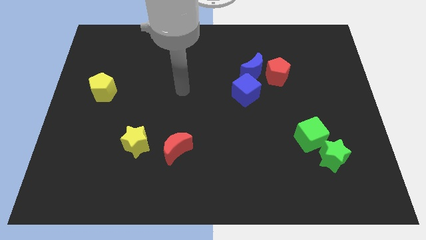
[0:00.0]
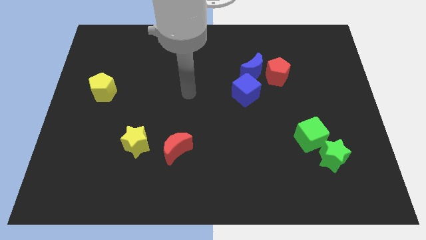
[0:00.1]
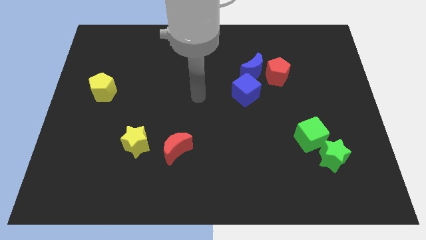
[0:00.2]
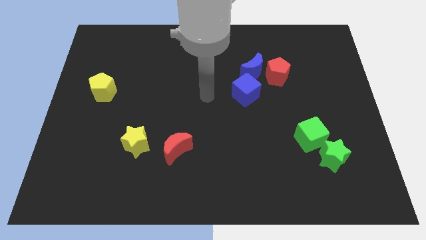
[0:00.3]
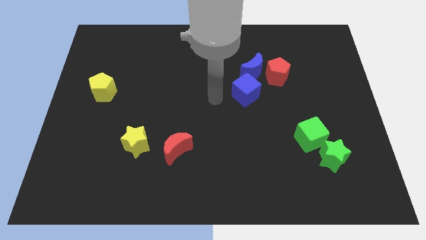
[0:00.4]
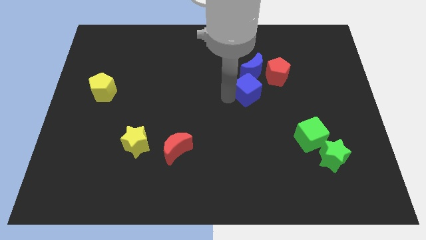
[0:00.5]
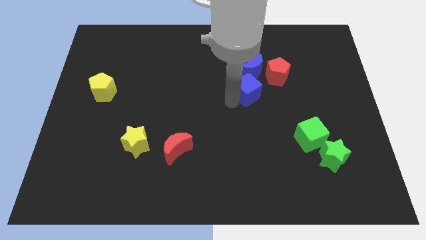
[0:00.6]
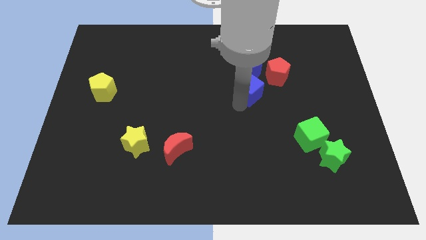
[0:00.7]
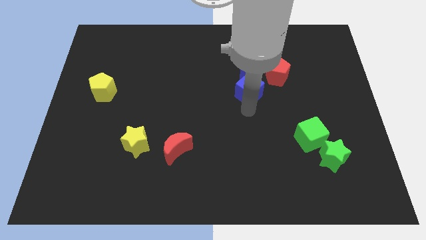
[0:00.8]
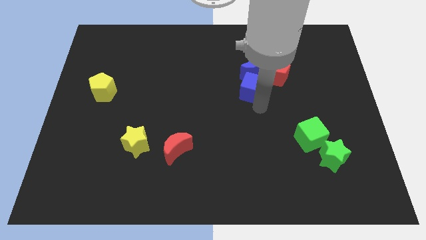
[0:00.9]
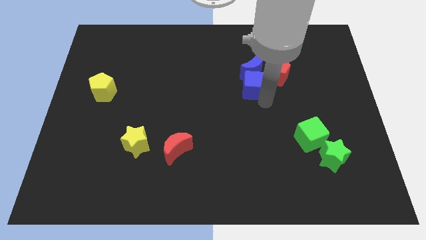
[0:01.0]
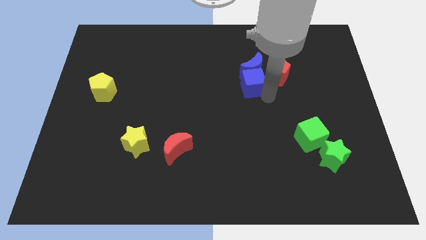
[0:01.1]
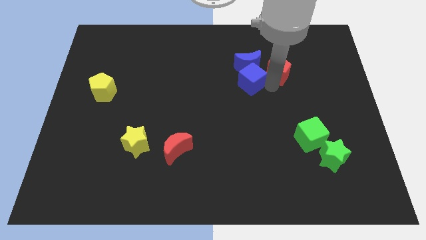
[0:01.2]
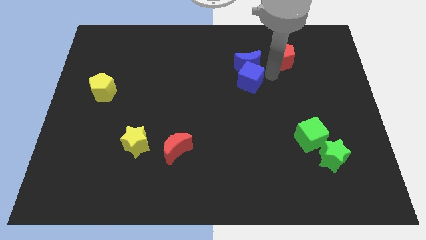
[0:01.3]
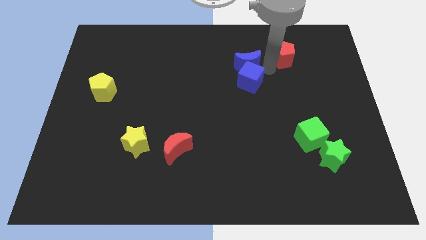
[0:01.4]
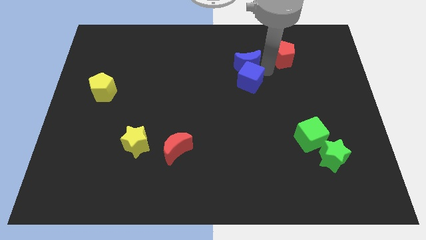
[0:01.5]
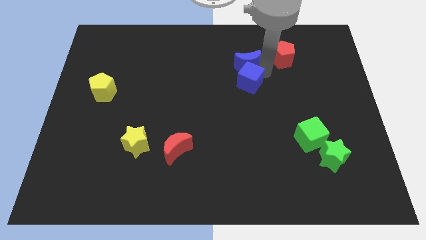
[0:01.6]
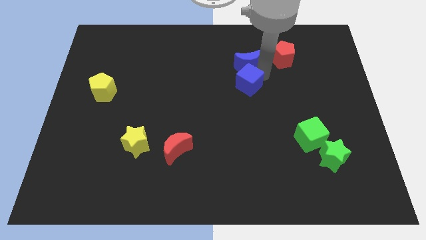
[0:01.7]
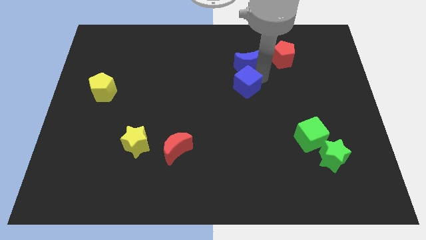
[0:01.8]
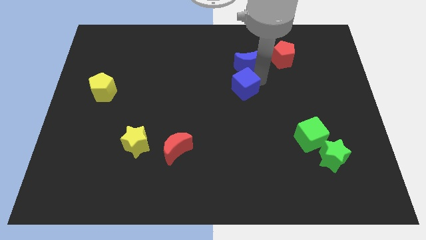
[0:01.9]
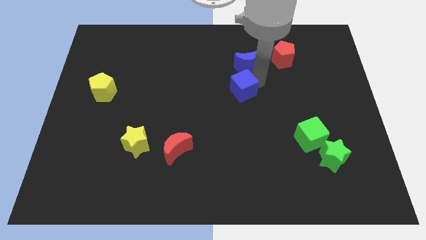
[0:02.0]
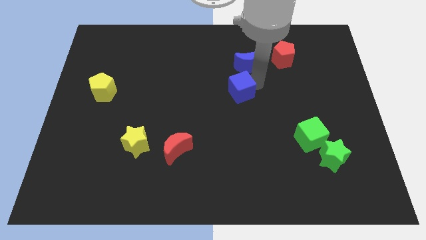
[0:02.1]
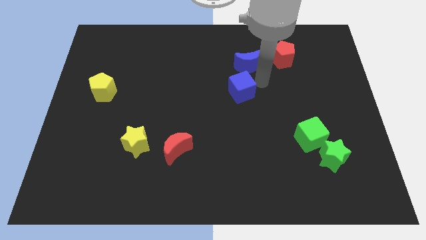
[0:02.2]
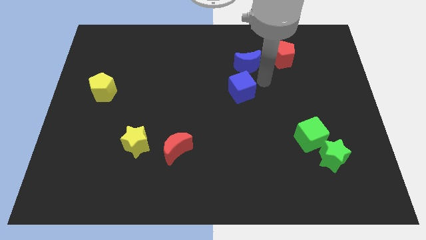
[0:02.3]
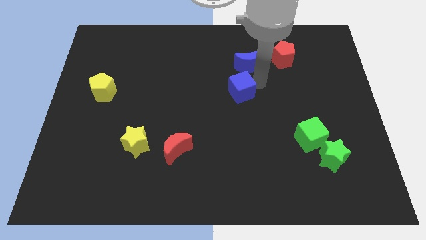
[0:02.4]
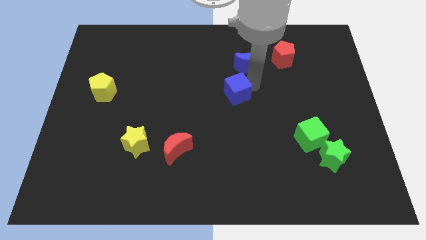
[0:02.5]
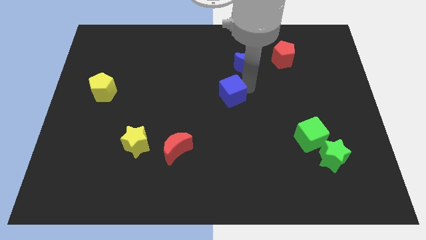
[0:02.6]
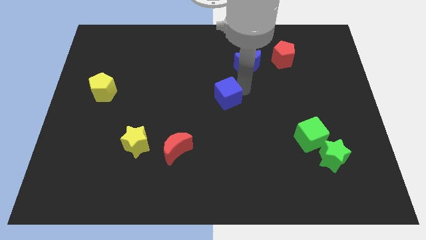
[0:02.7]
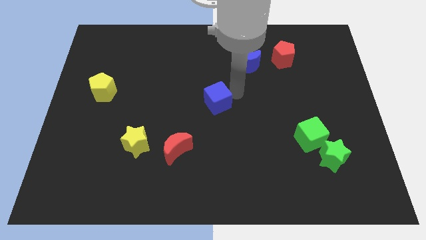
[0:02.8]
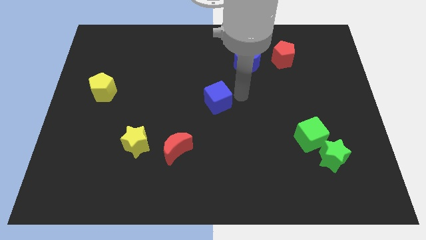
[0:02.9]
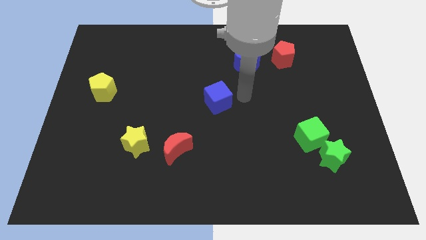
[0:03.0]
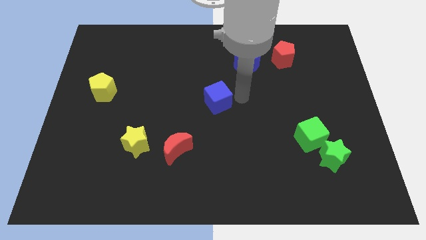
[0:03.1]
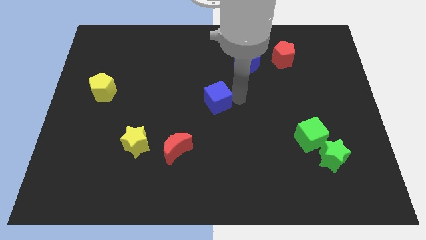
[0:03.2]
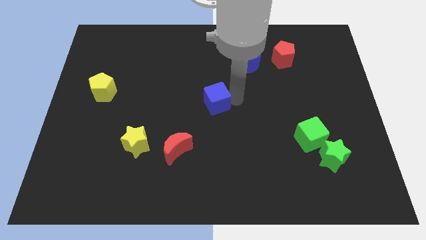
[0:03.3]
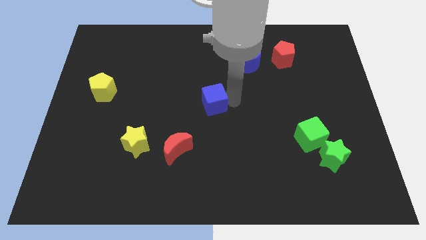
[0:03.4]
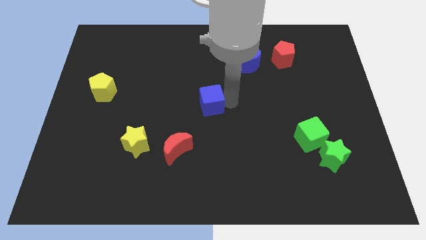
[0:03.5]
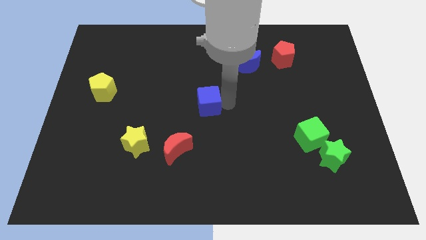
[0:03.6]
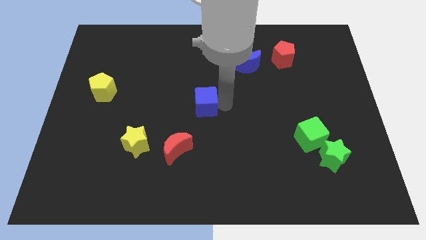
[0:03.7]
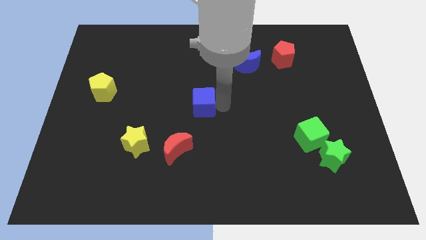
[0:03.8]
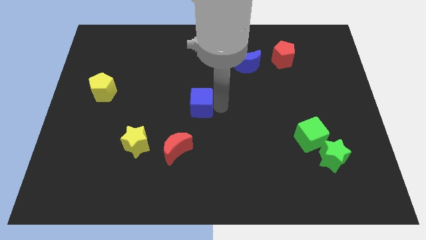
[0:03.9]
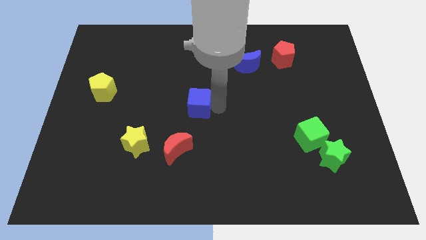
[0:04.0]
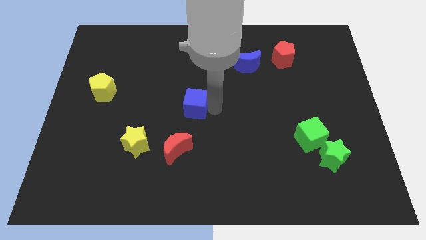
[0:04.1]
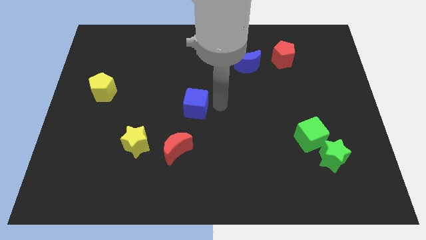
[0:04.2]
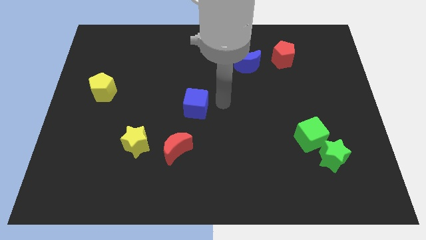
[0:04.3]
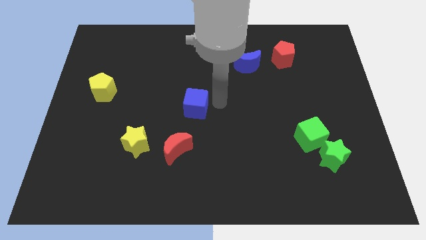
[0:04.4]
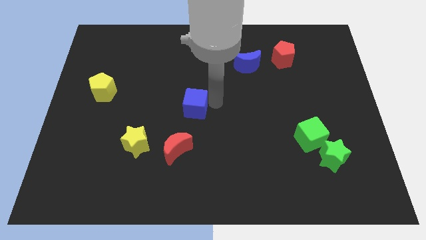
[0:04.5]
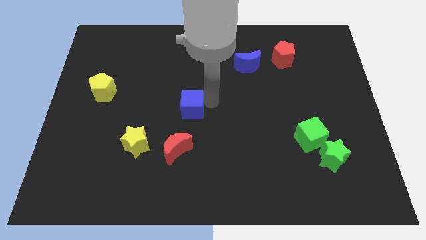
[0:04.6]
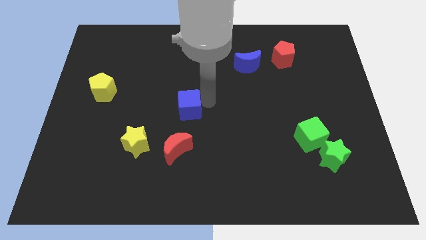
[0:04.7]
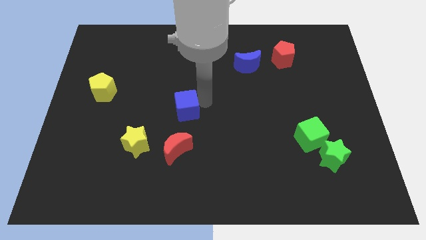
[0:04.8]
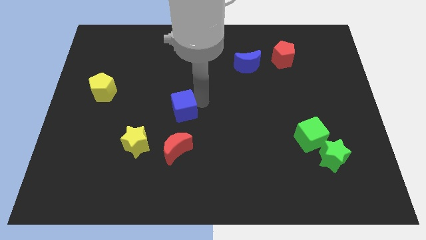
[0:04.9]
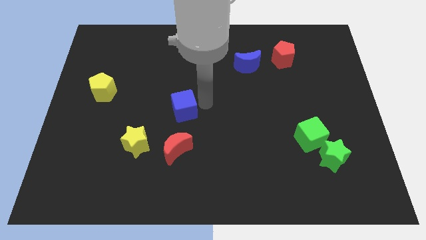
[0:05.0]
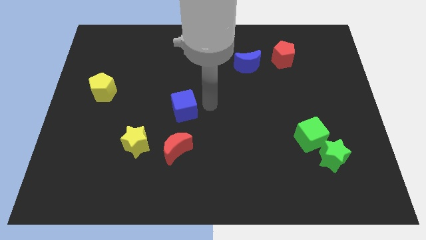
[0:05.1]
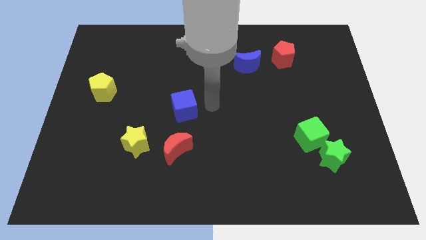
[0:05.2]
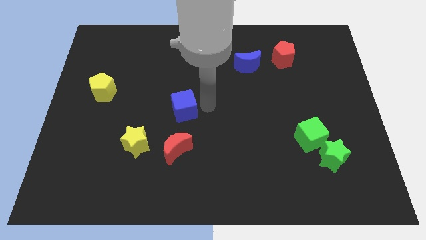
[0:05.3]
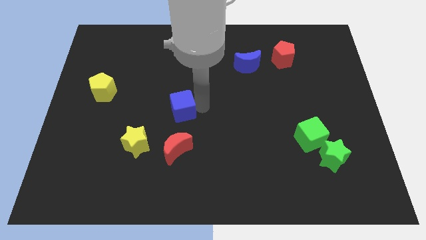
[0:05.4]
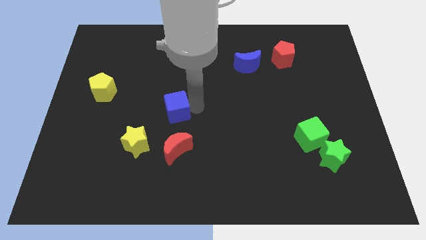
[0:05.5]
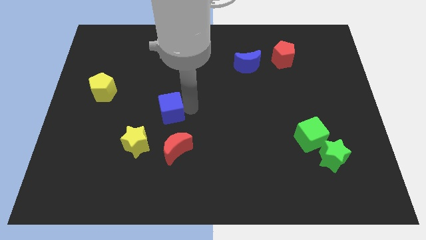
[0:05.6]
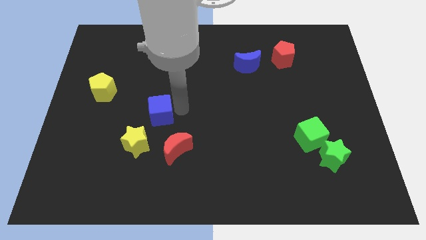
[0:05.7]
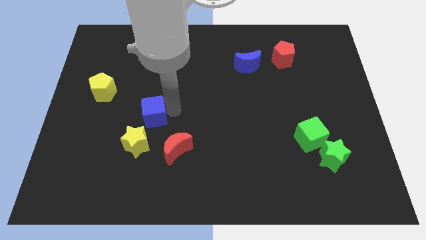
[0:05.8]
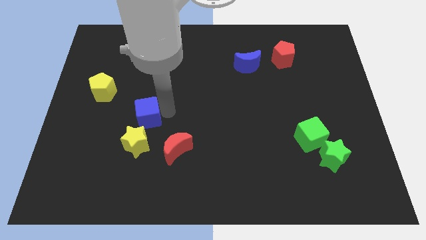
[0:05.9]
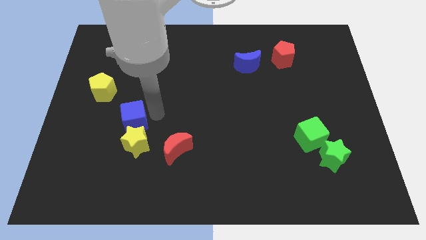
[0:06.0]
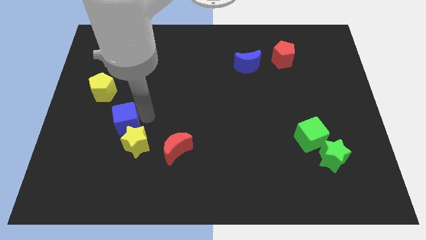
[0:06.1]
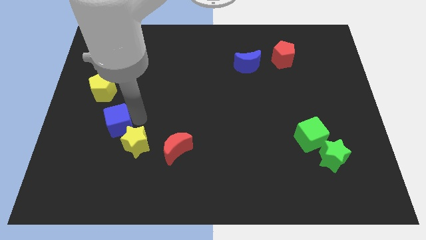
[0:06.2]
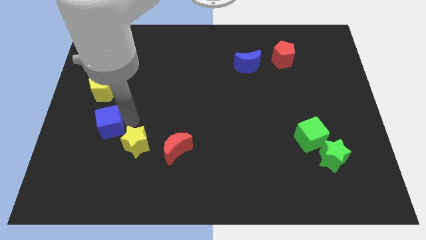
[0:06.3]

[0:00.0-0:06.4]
move the blue cube below the yellow pentagon

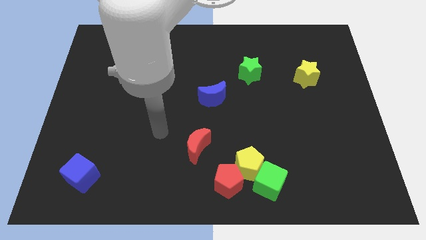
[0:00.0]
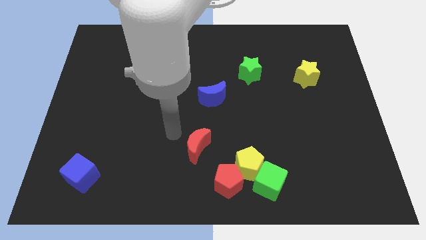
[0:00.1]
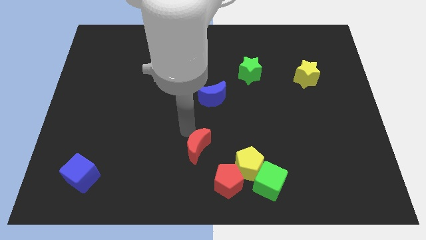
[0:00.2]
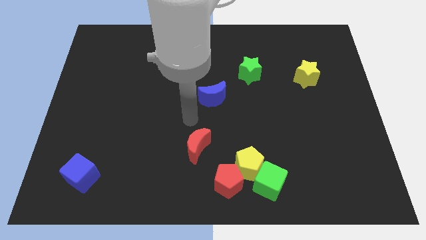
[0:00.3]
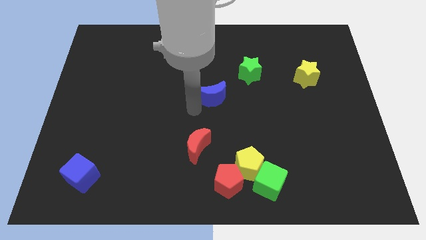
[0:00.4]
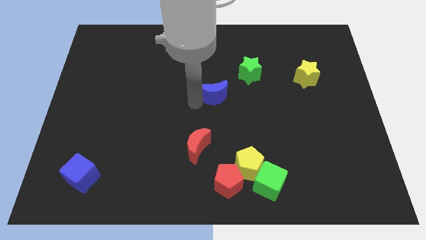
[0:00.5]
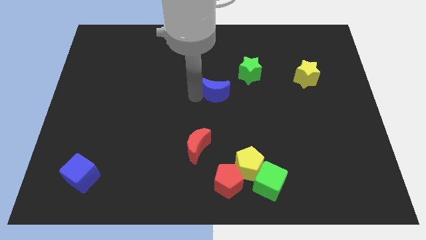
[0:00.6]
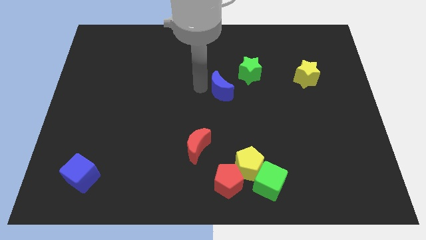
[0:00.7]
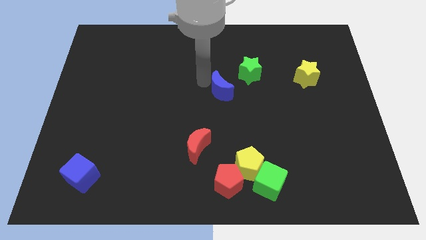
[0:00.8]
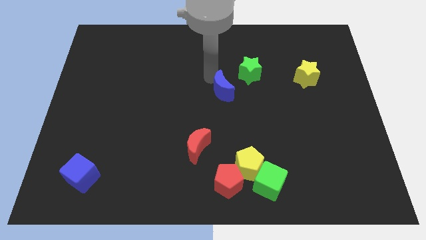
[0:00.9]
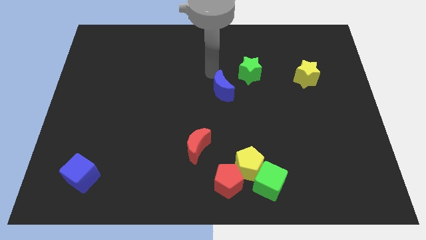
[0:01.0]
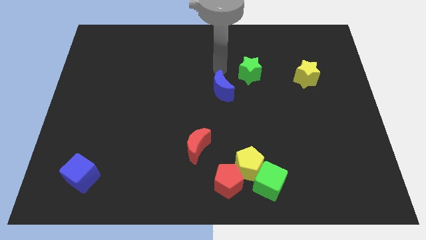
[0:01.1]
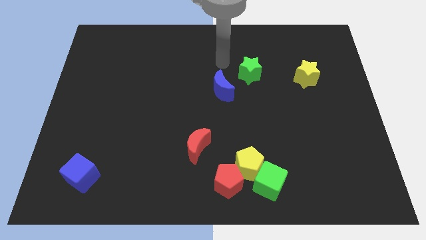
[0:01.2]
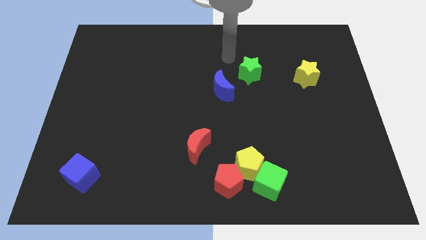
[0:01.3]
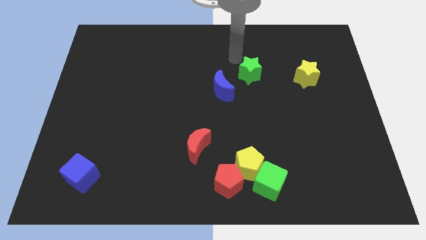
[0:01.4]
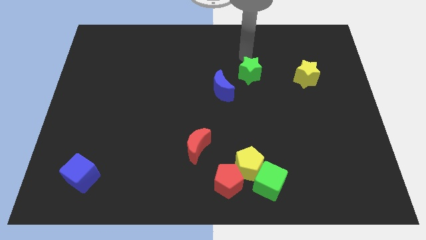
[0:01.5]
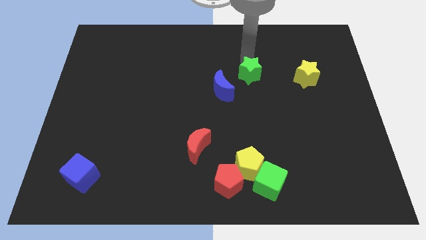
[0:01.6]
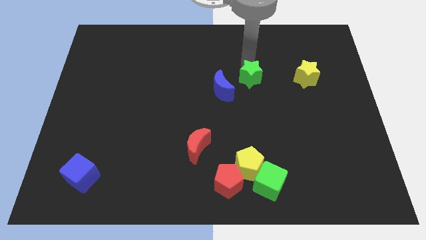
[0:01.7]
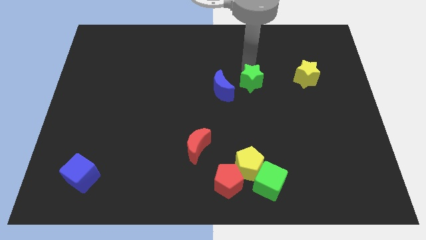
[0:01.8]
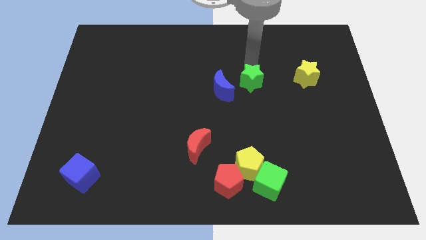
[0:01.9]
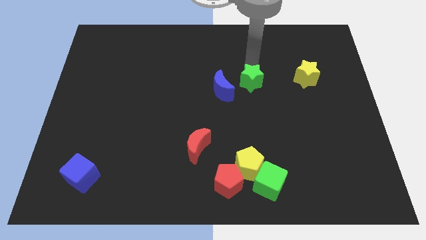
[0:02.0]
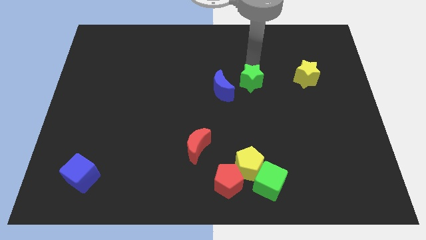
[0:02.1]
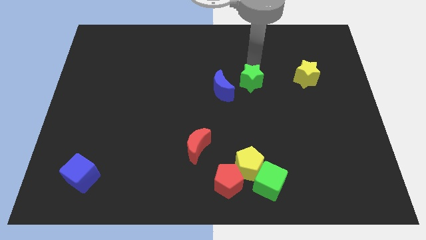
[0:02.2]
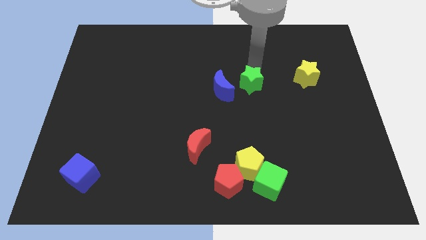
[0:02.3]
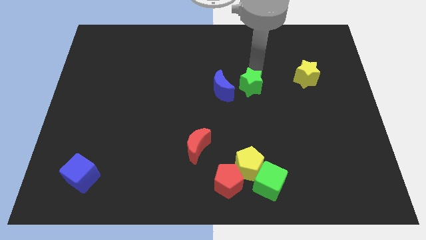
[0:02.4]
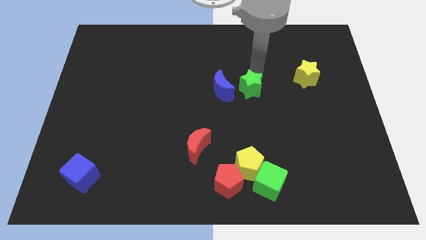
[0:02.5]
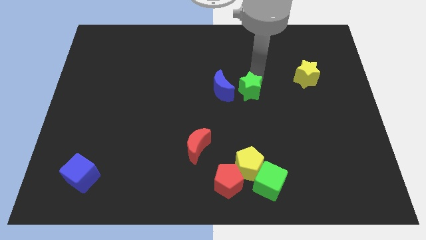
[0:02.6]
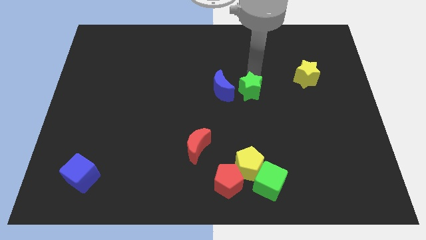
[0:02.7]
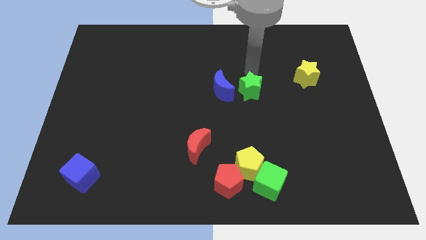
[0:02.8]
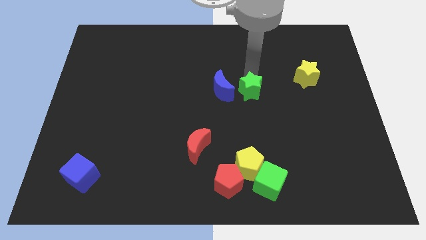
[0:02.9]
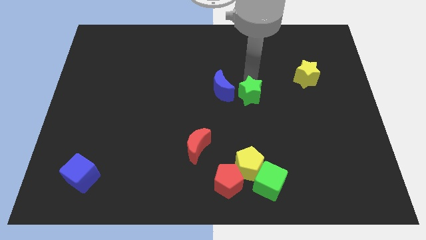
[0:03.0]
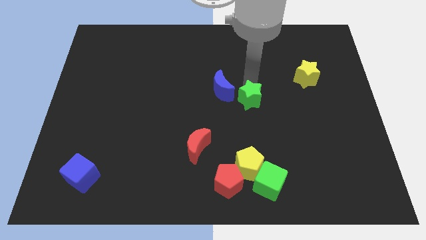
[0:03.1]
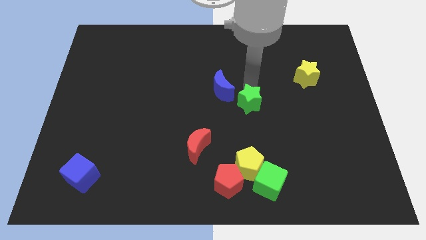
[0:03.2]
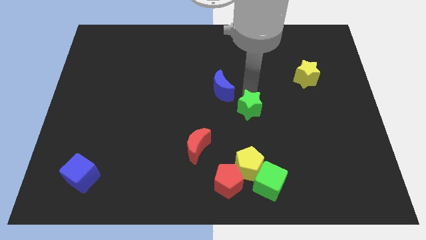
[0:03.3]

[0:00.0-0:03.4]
move the green star to the top of the yellow pentagon
